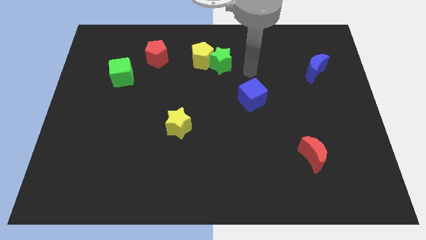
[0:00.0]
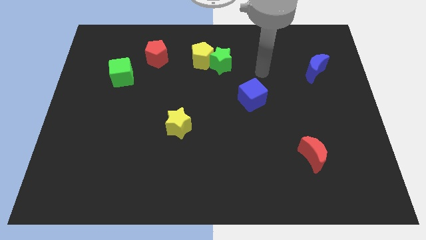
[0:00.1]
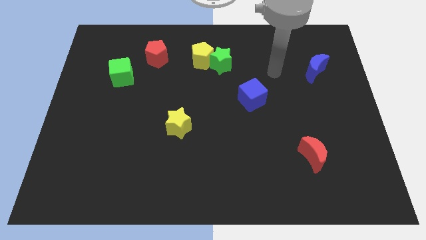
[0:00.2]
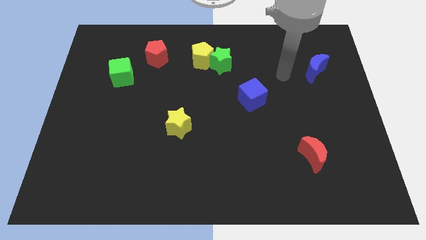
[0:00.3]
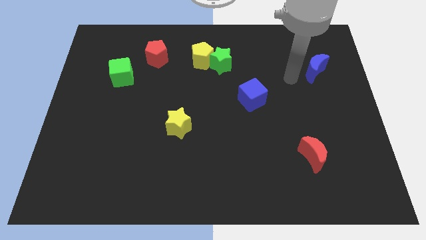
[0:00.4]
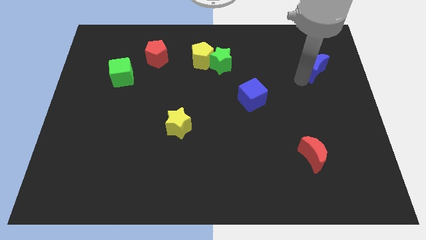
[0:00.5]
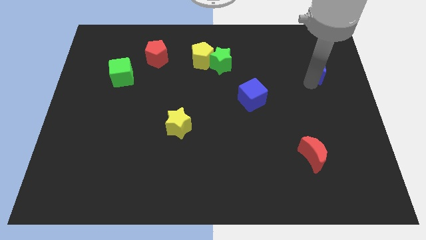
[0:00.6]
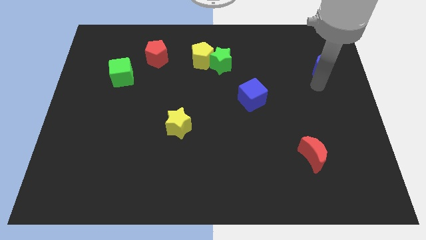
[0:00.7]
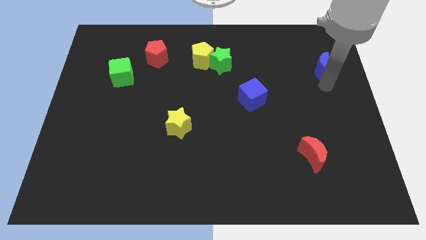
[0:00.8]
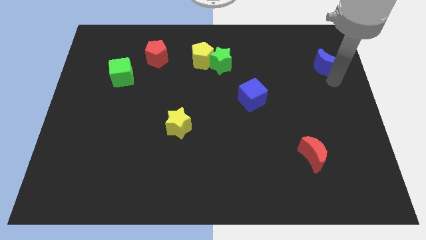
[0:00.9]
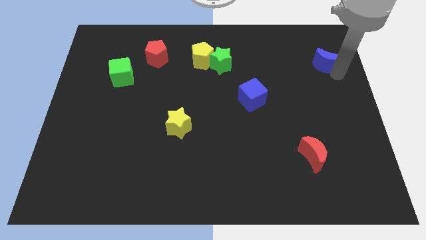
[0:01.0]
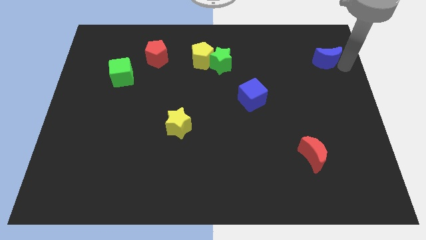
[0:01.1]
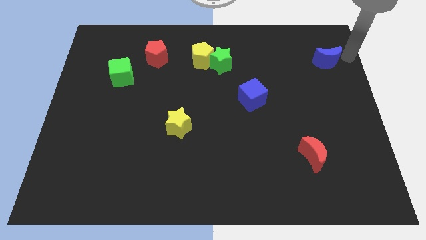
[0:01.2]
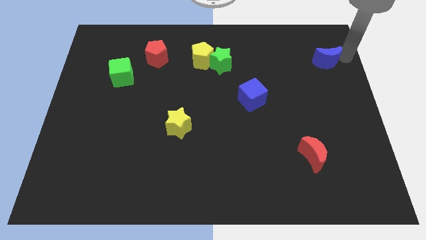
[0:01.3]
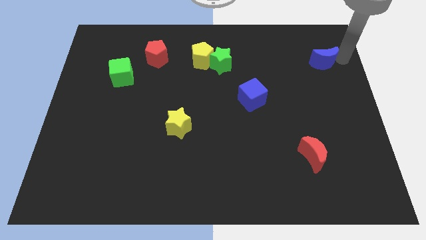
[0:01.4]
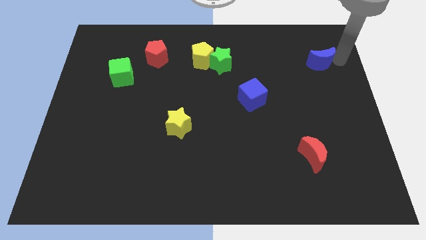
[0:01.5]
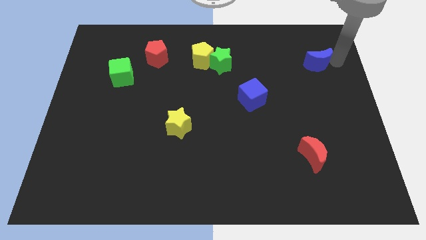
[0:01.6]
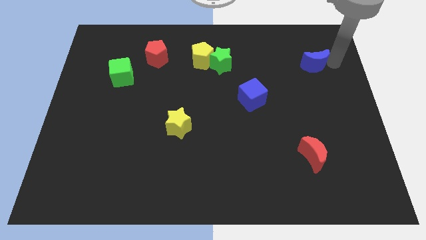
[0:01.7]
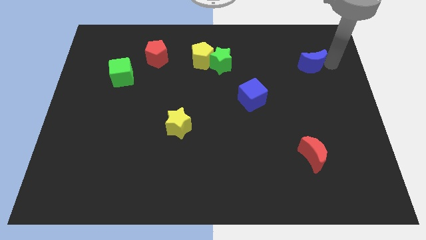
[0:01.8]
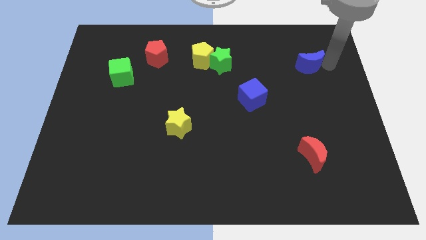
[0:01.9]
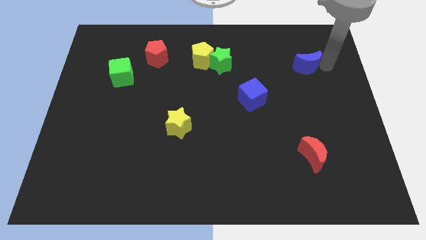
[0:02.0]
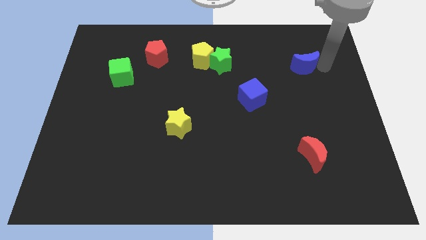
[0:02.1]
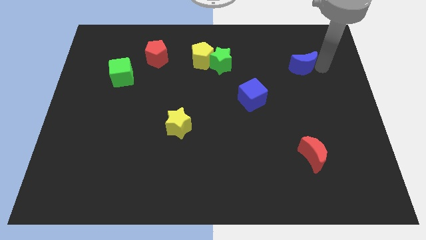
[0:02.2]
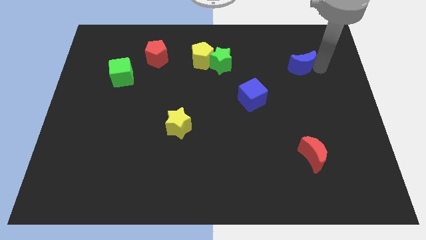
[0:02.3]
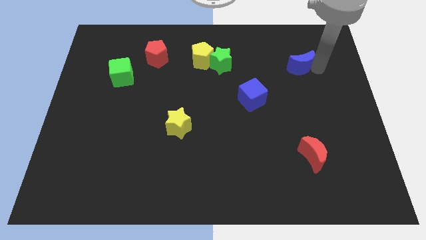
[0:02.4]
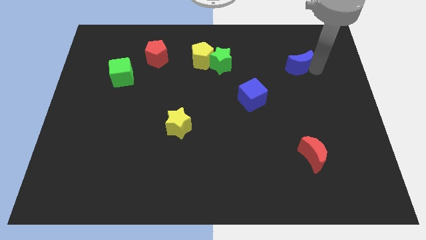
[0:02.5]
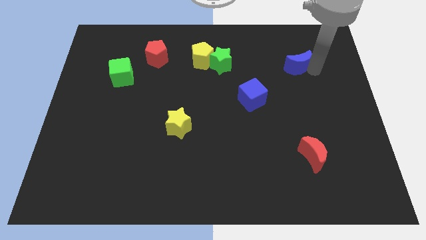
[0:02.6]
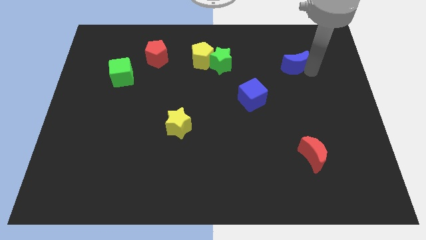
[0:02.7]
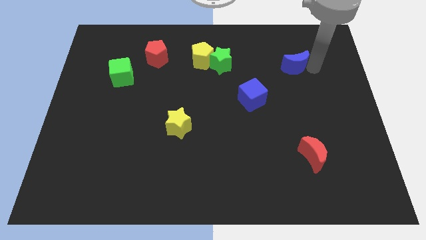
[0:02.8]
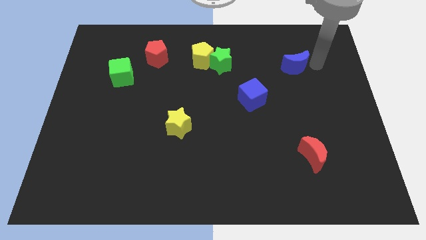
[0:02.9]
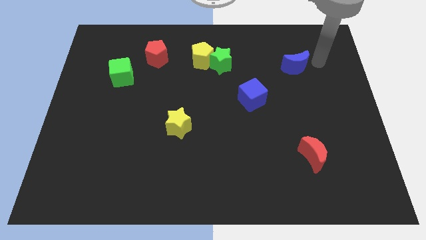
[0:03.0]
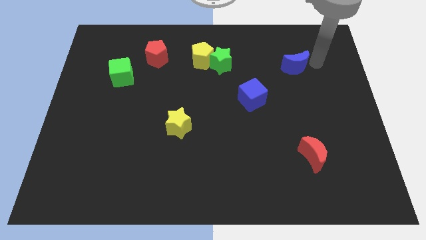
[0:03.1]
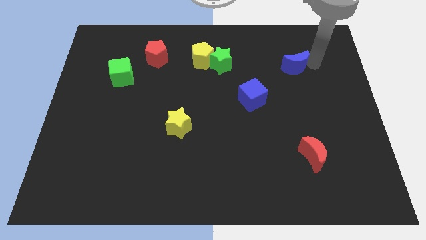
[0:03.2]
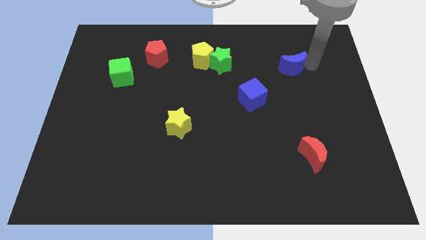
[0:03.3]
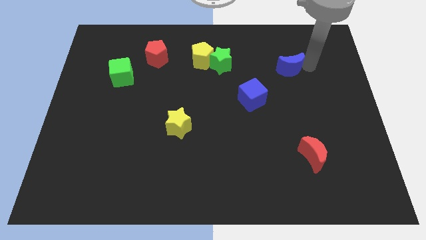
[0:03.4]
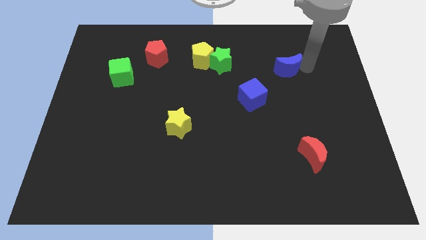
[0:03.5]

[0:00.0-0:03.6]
slightly move the blue moon left

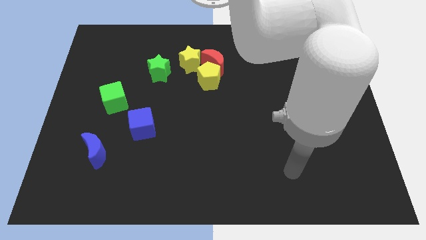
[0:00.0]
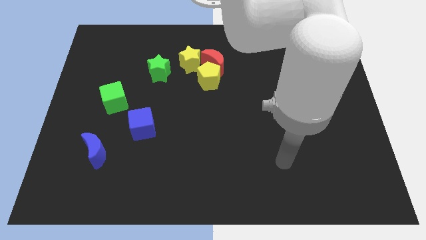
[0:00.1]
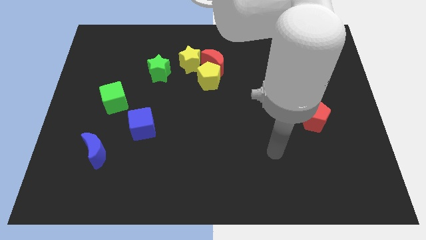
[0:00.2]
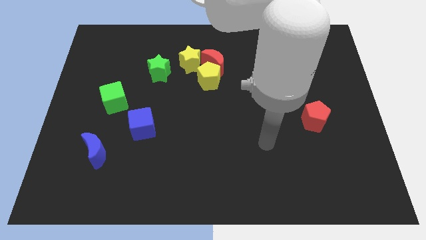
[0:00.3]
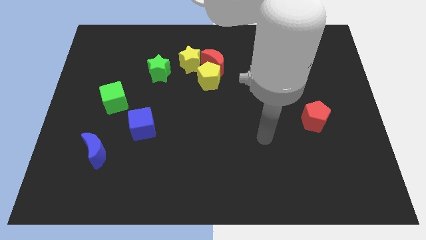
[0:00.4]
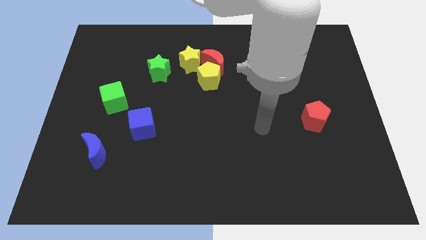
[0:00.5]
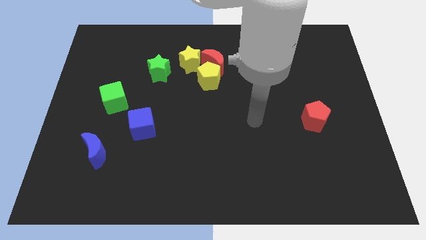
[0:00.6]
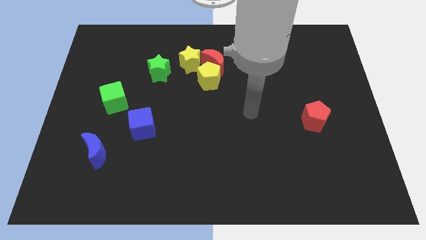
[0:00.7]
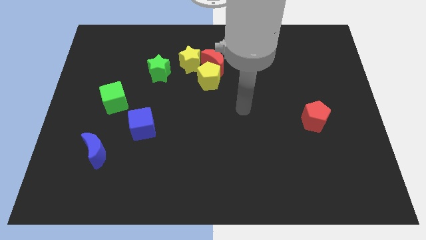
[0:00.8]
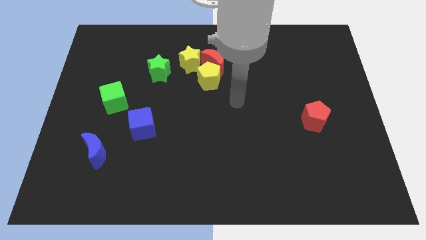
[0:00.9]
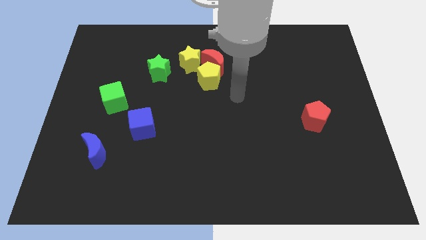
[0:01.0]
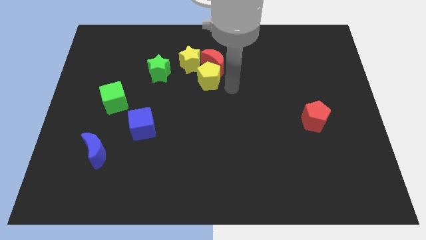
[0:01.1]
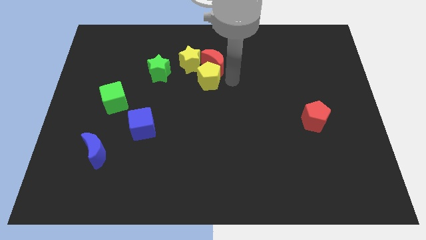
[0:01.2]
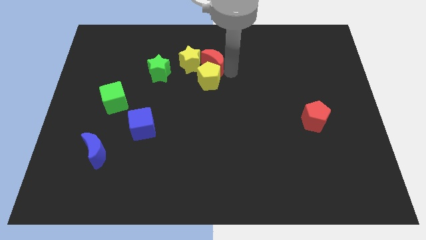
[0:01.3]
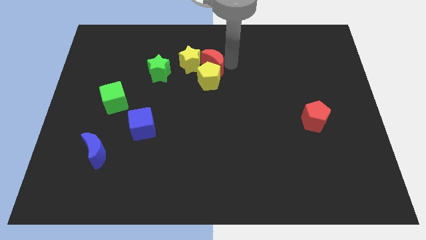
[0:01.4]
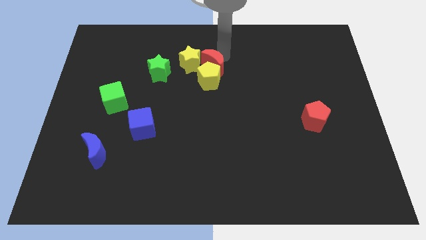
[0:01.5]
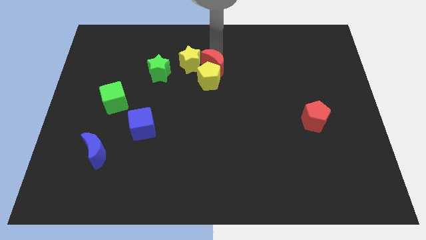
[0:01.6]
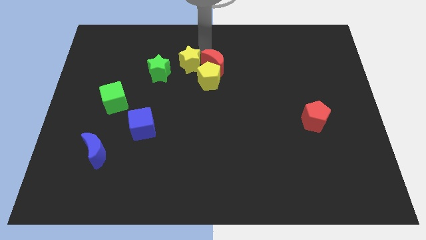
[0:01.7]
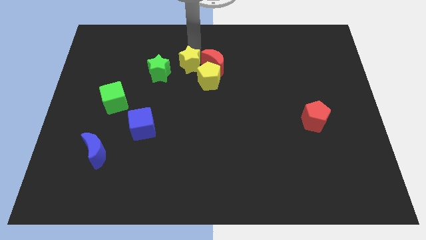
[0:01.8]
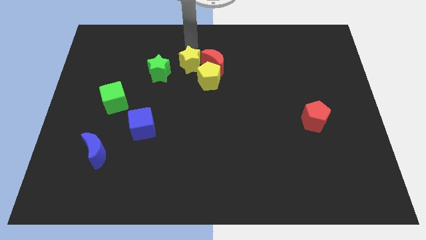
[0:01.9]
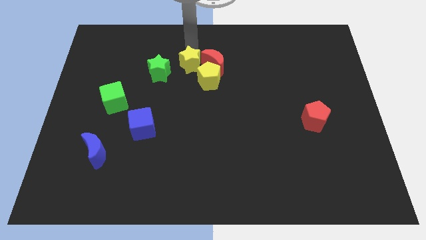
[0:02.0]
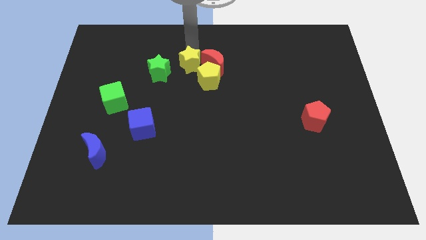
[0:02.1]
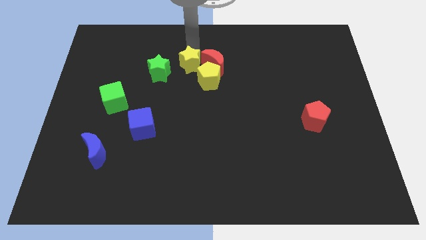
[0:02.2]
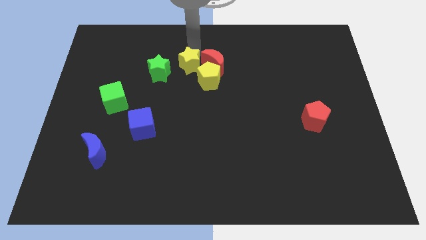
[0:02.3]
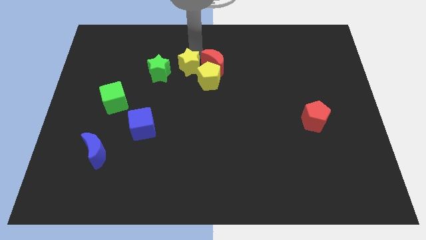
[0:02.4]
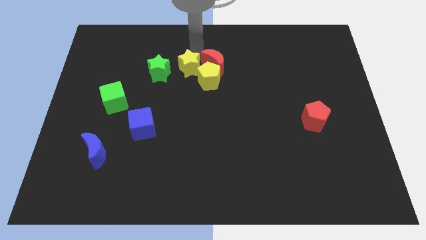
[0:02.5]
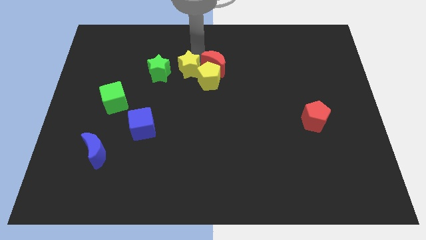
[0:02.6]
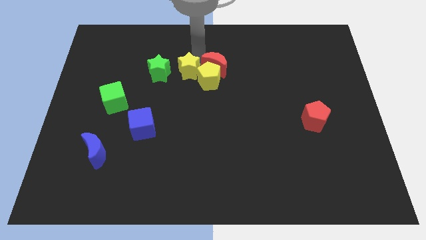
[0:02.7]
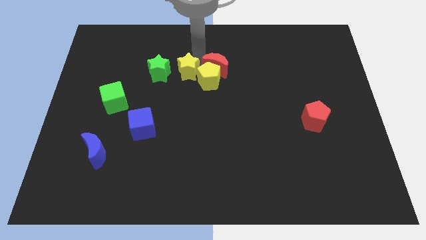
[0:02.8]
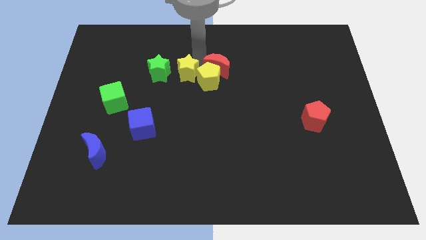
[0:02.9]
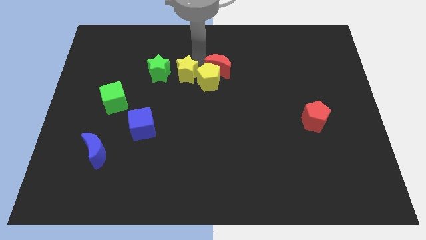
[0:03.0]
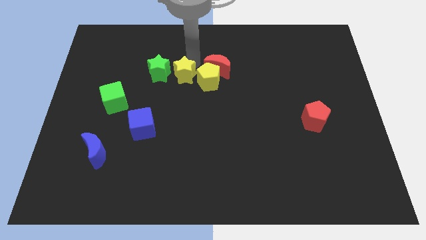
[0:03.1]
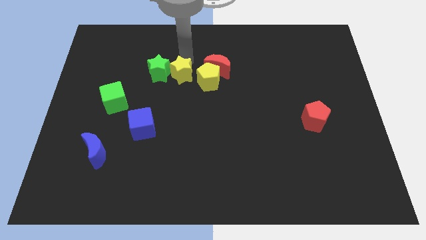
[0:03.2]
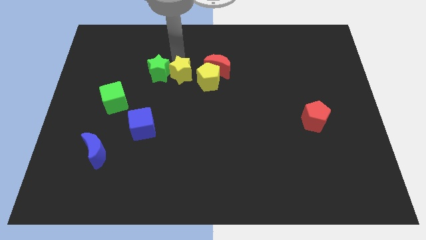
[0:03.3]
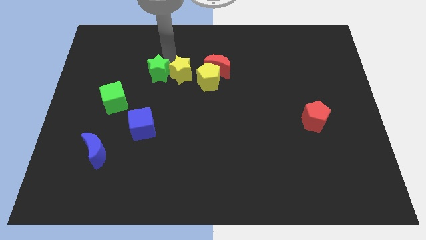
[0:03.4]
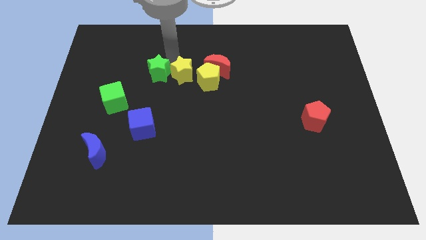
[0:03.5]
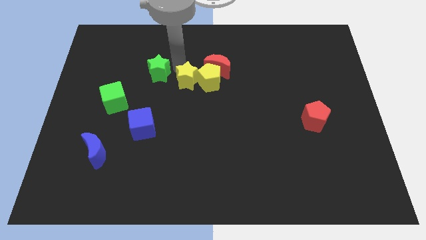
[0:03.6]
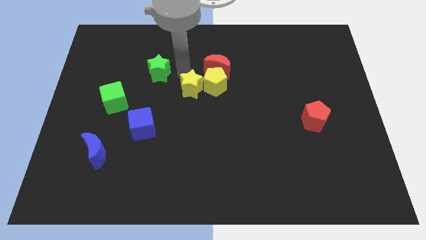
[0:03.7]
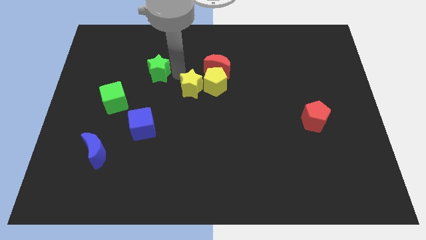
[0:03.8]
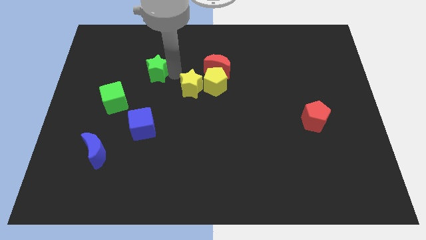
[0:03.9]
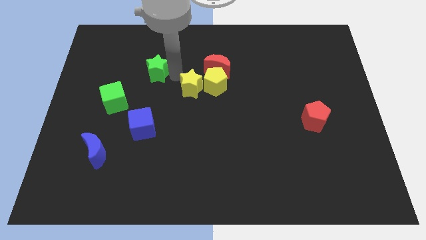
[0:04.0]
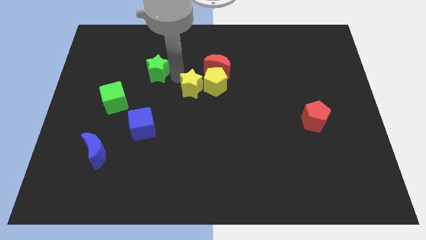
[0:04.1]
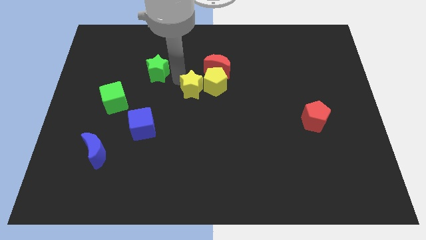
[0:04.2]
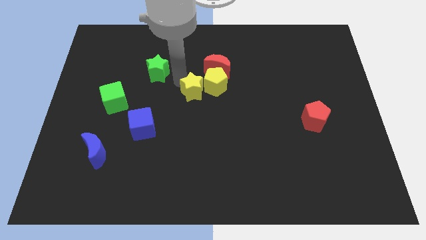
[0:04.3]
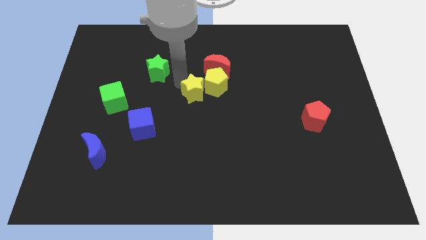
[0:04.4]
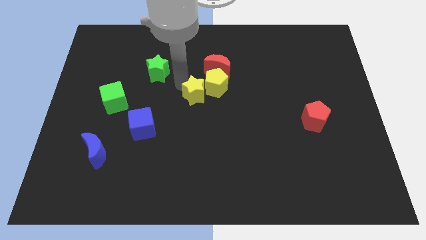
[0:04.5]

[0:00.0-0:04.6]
push the yellow star a little bit downwards and then right
